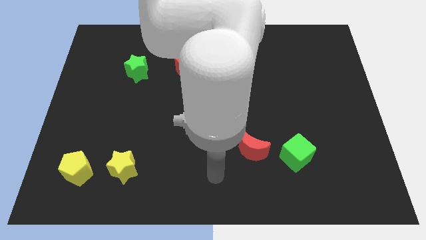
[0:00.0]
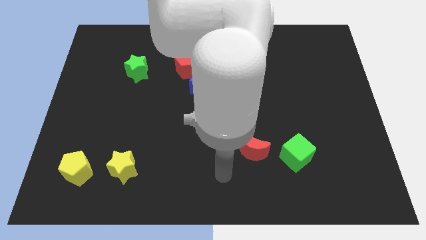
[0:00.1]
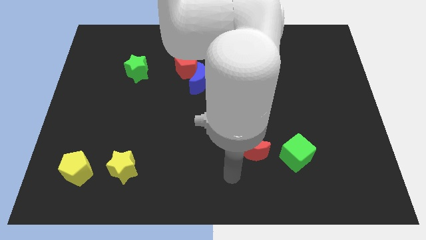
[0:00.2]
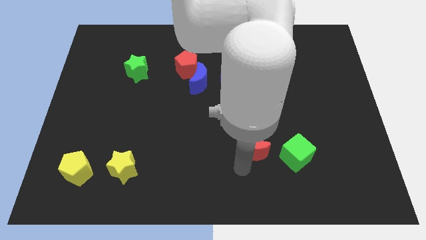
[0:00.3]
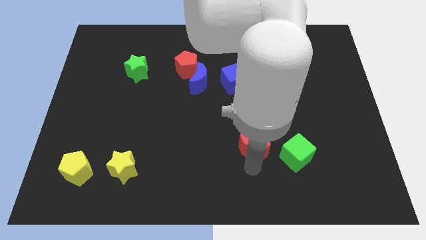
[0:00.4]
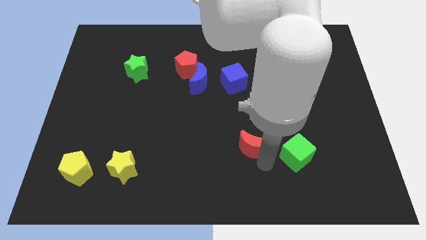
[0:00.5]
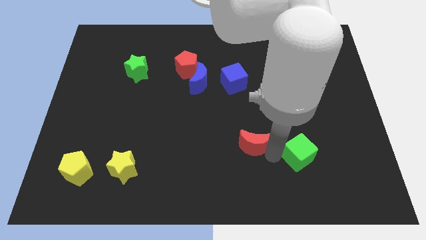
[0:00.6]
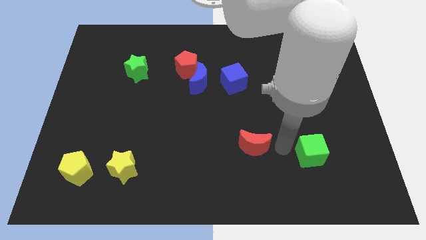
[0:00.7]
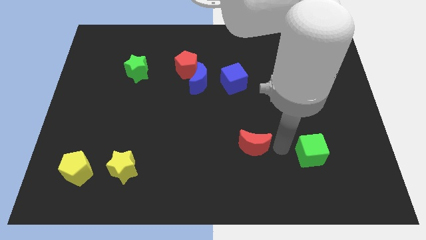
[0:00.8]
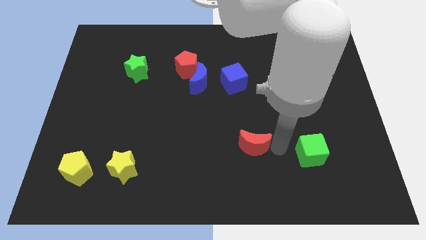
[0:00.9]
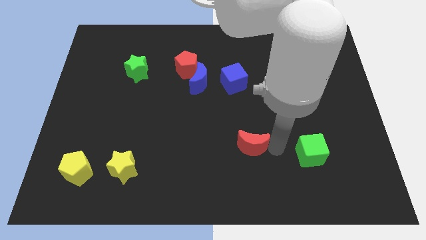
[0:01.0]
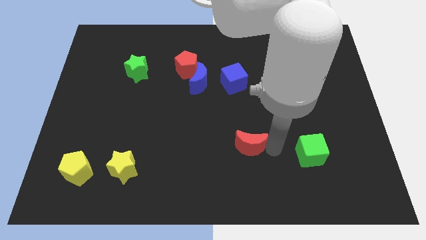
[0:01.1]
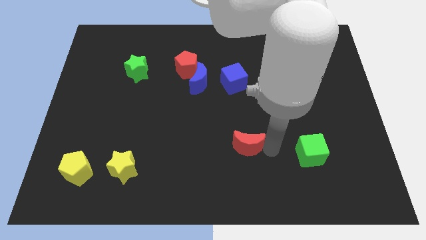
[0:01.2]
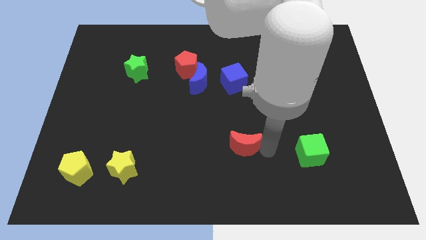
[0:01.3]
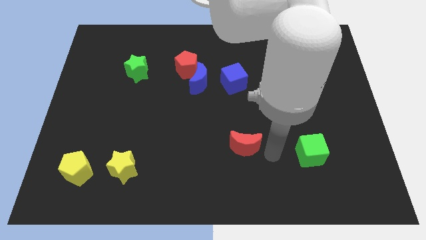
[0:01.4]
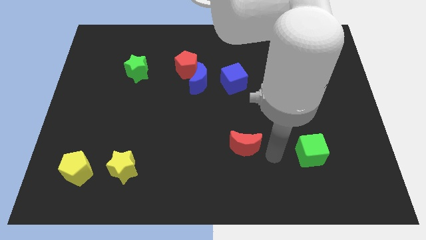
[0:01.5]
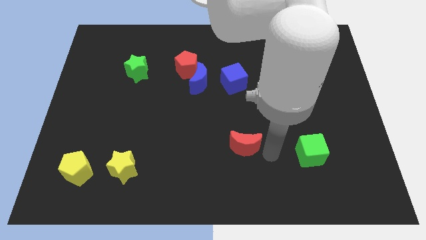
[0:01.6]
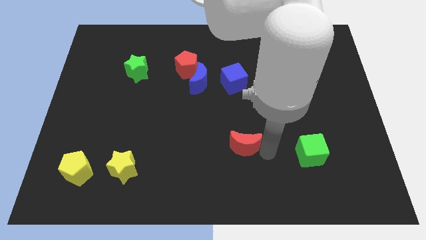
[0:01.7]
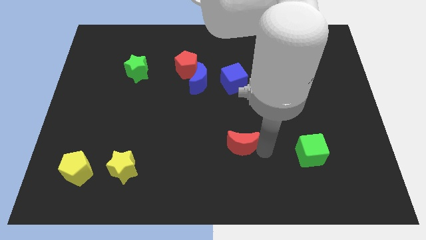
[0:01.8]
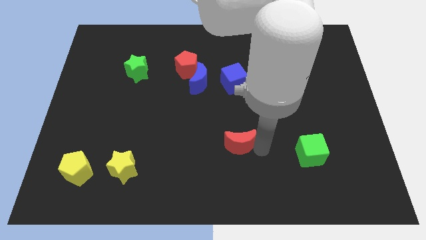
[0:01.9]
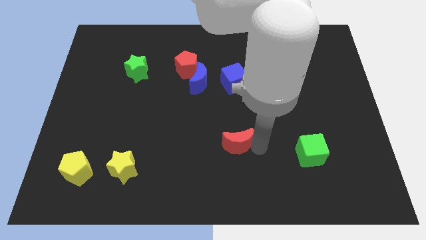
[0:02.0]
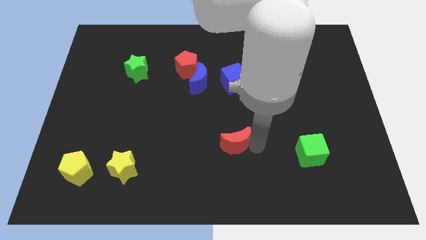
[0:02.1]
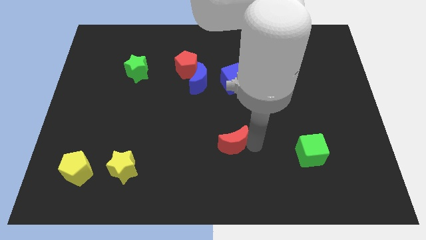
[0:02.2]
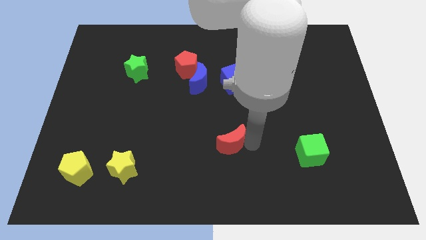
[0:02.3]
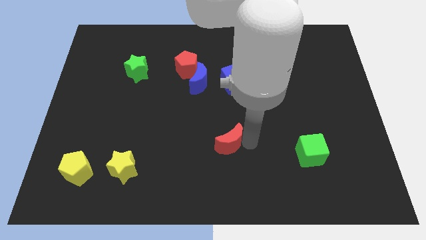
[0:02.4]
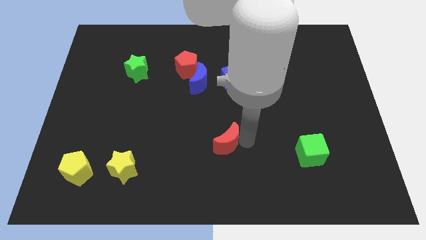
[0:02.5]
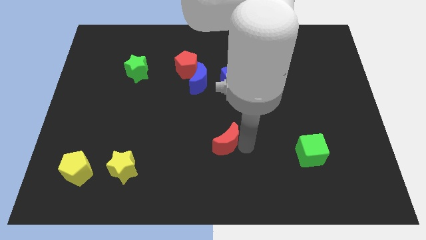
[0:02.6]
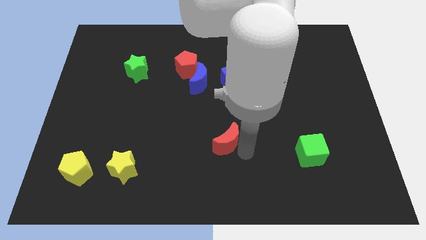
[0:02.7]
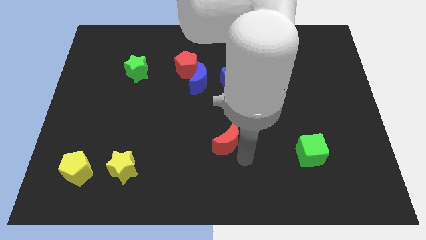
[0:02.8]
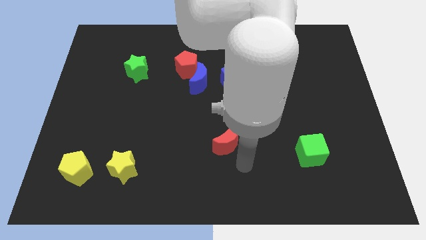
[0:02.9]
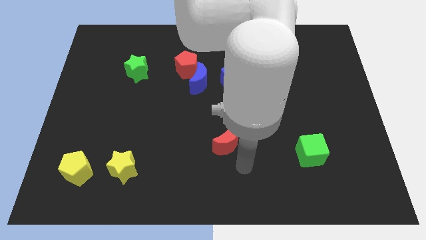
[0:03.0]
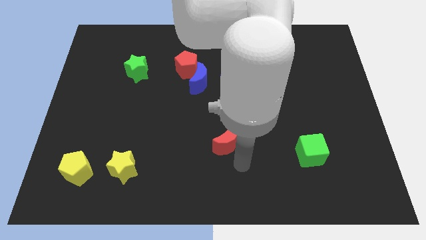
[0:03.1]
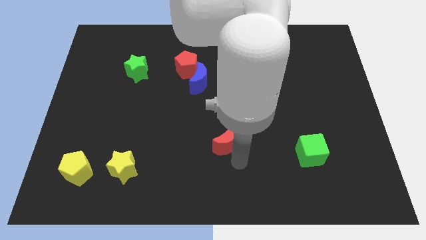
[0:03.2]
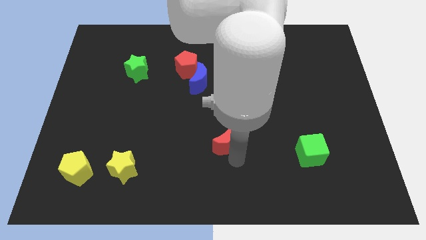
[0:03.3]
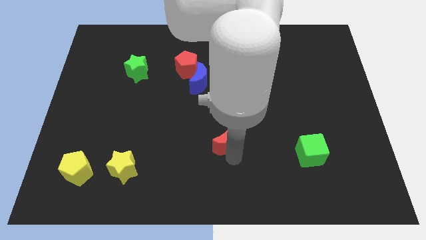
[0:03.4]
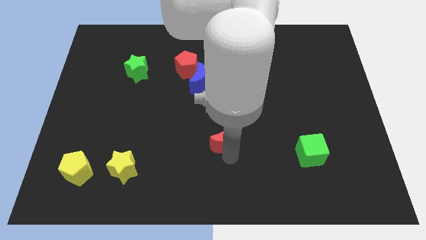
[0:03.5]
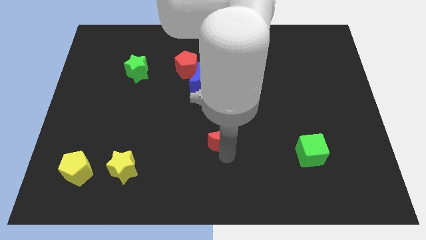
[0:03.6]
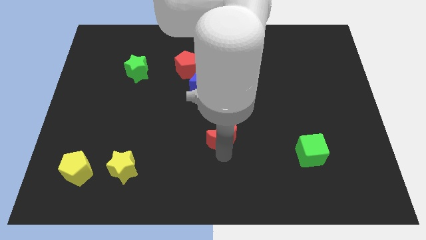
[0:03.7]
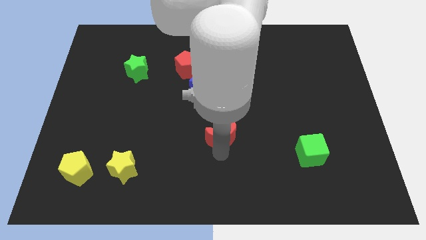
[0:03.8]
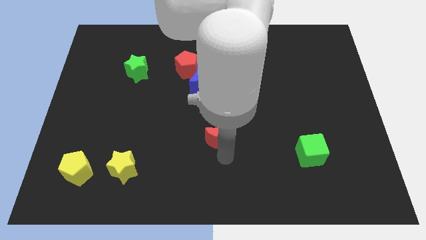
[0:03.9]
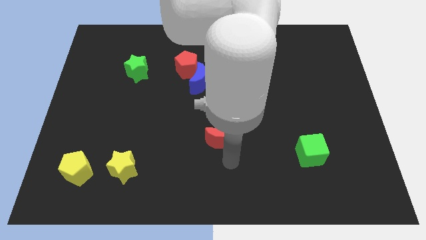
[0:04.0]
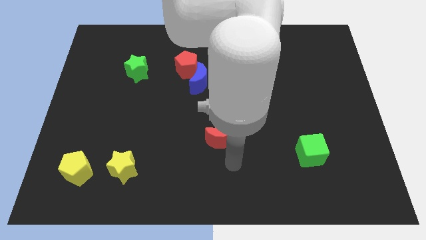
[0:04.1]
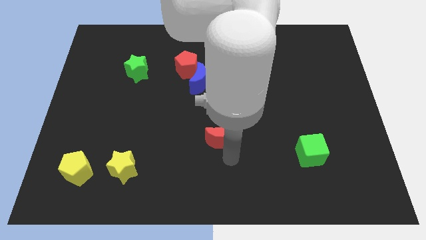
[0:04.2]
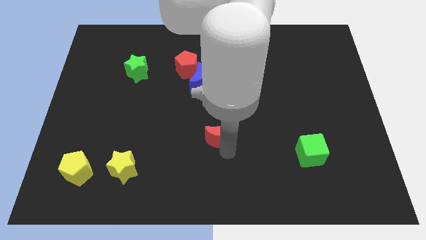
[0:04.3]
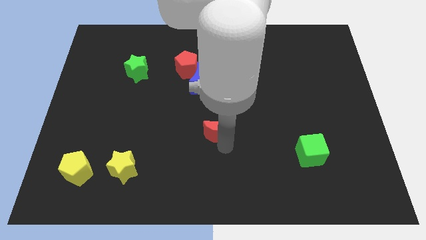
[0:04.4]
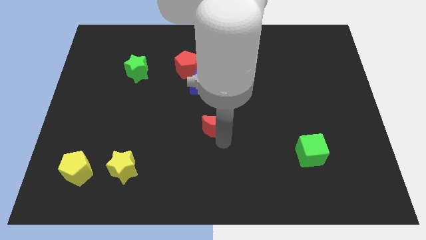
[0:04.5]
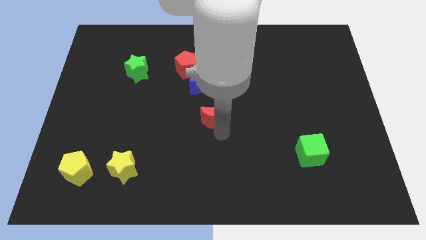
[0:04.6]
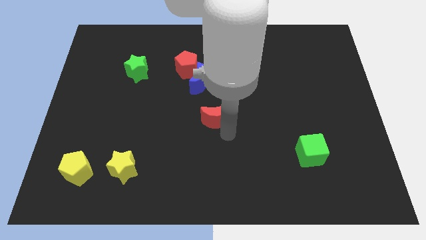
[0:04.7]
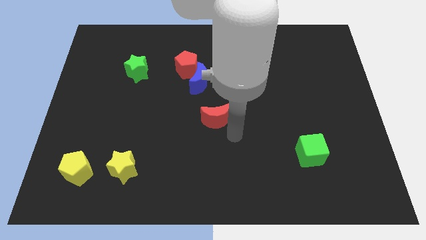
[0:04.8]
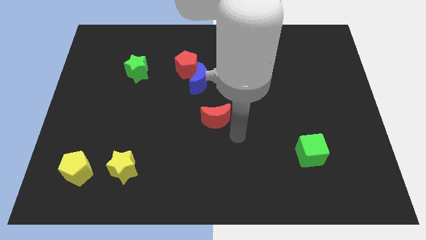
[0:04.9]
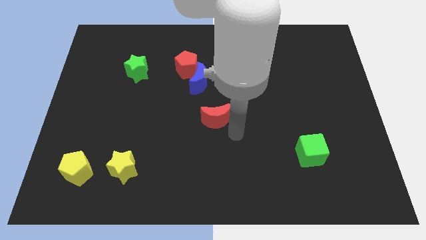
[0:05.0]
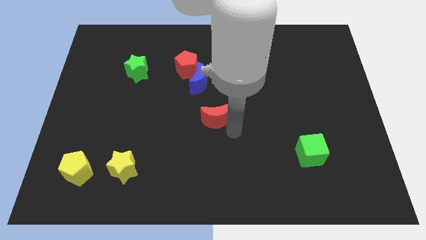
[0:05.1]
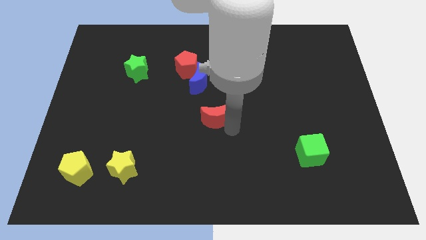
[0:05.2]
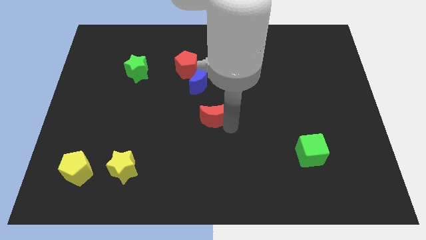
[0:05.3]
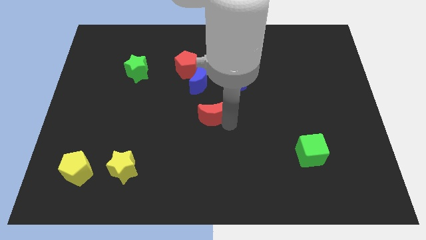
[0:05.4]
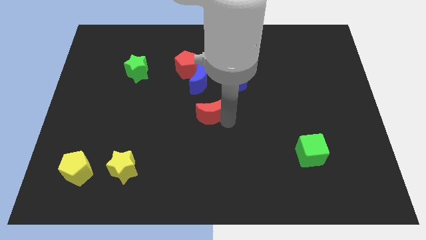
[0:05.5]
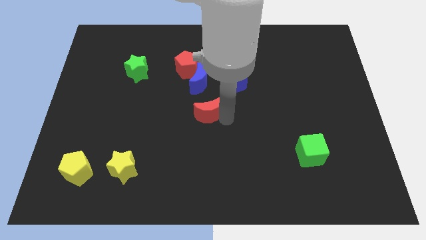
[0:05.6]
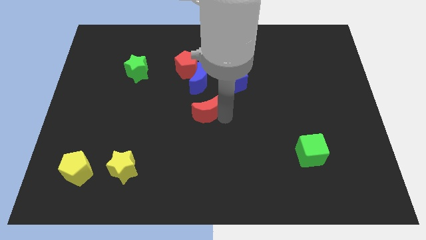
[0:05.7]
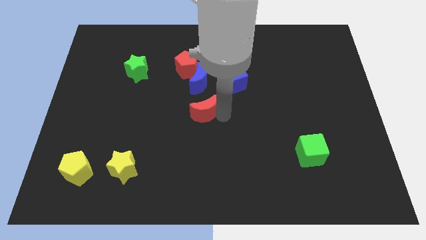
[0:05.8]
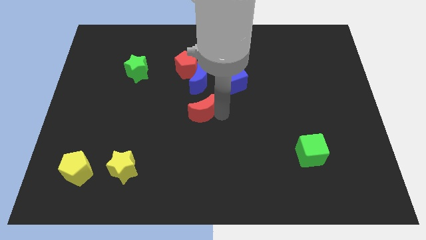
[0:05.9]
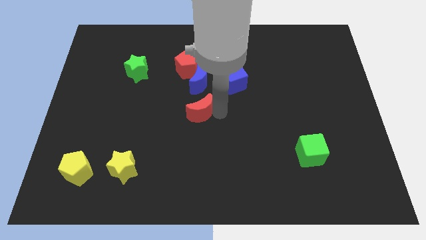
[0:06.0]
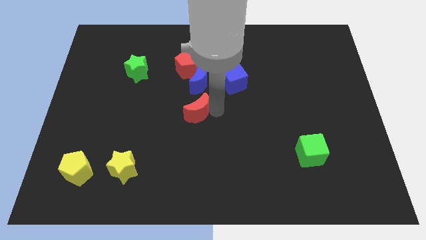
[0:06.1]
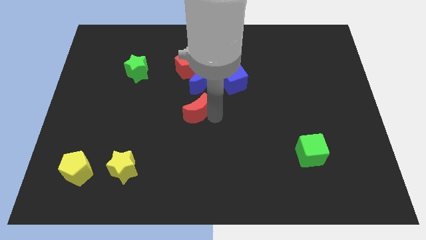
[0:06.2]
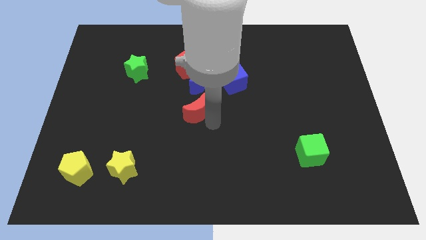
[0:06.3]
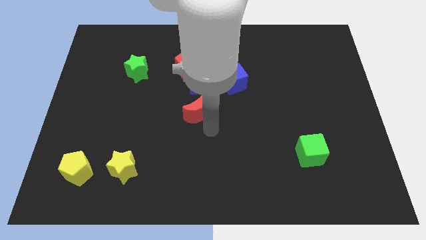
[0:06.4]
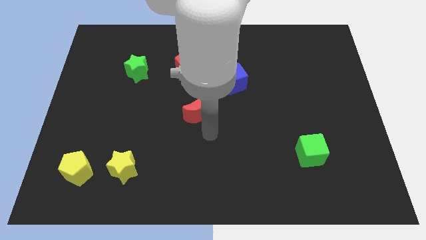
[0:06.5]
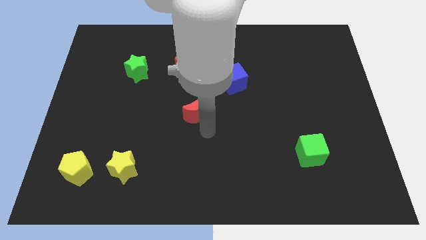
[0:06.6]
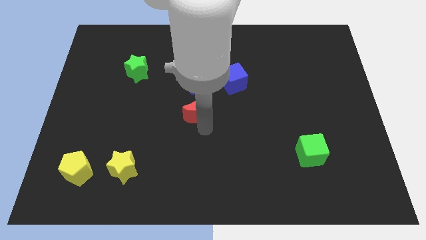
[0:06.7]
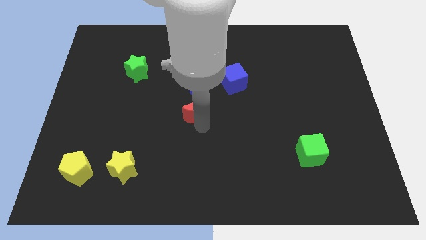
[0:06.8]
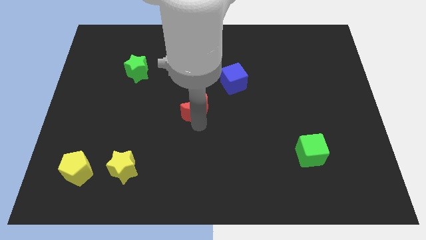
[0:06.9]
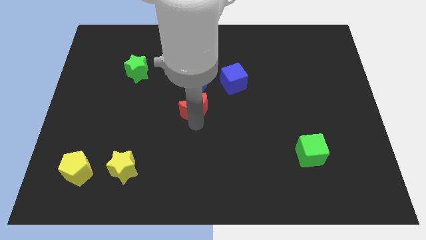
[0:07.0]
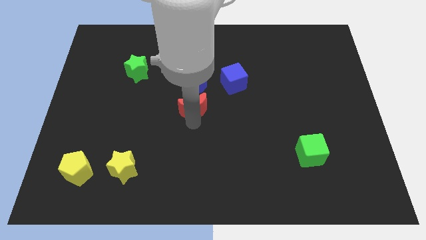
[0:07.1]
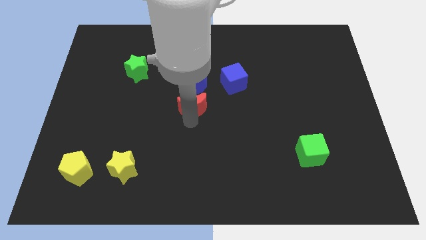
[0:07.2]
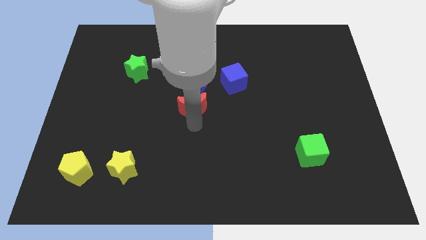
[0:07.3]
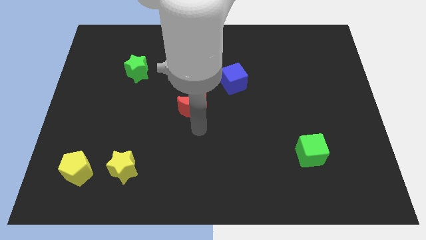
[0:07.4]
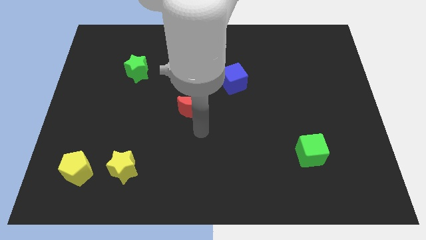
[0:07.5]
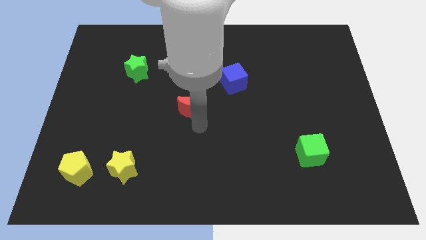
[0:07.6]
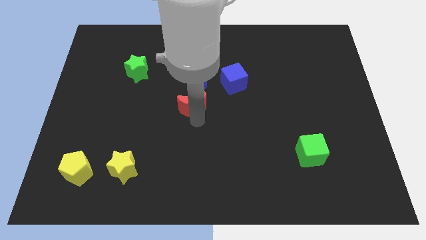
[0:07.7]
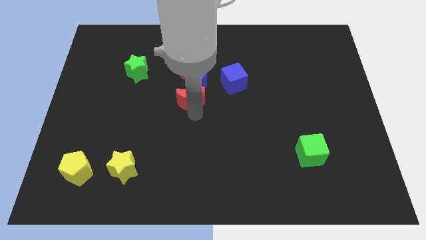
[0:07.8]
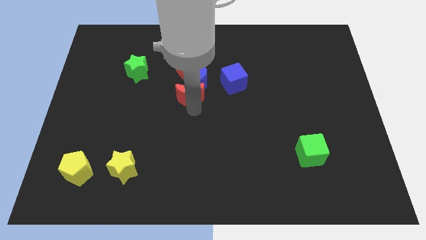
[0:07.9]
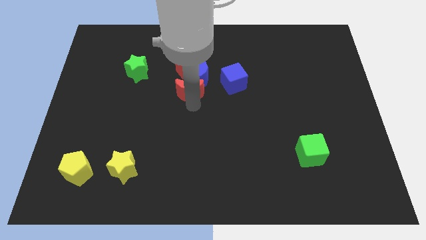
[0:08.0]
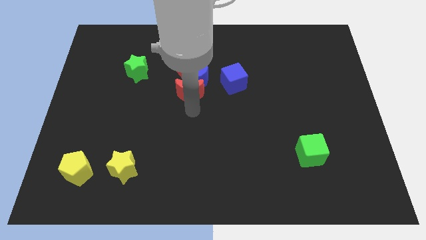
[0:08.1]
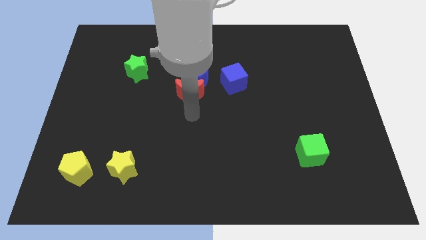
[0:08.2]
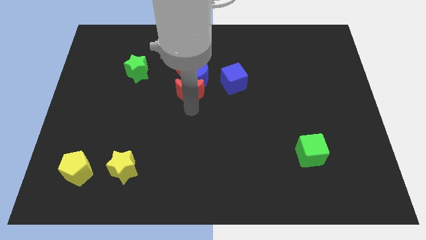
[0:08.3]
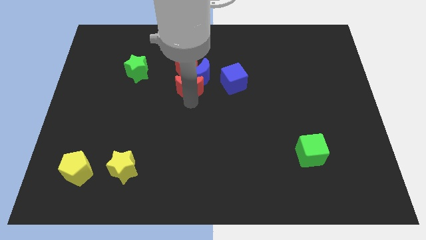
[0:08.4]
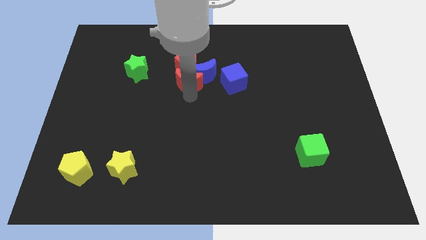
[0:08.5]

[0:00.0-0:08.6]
put the red moon close to the red pentagon

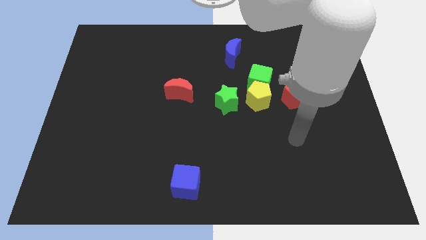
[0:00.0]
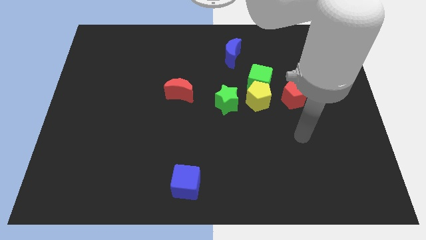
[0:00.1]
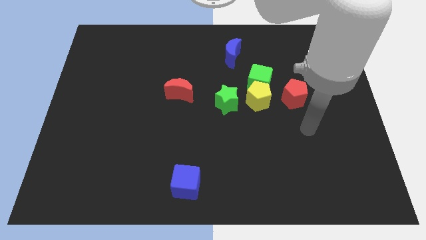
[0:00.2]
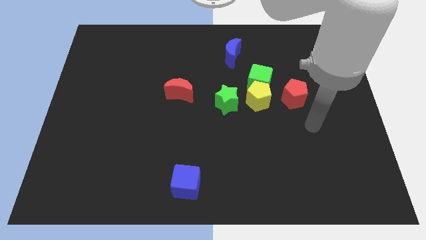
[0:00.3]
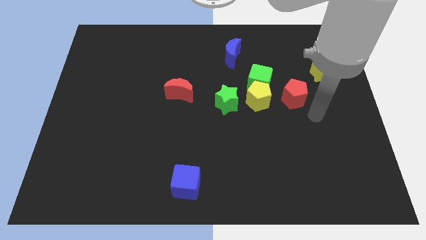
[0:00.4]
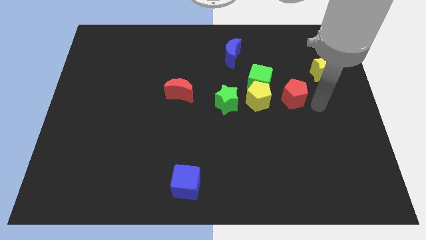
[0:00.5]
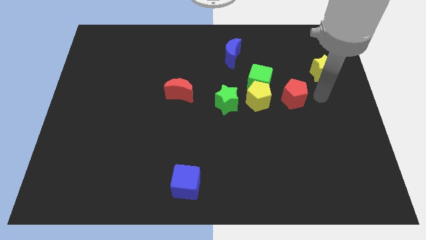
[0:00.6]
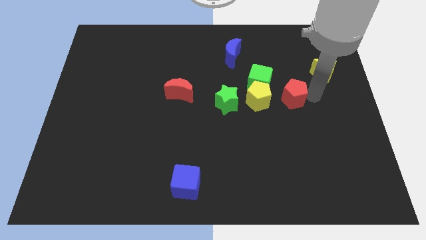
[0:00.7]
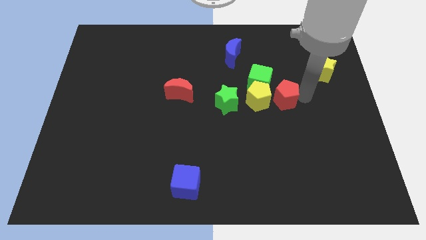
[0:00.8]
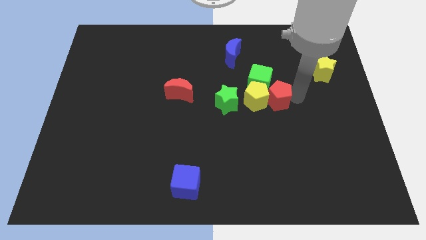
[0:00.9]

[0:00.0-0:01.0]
move the red pentagon to the yellow pentagon
